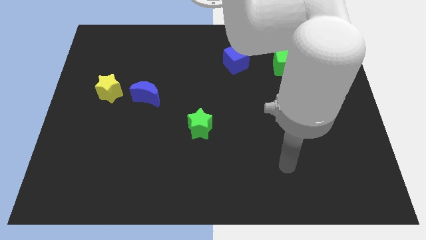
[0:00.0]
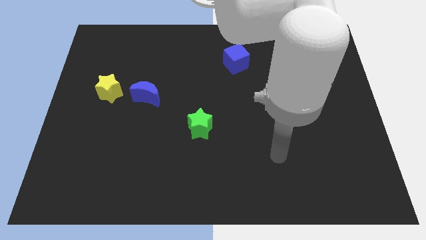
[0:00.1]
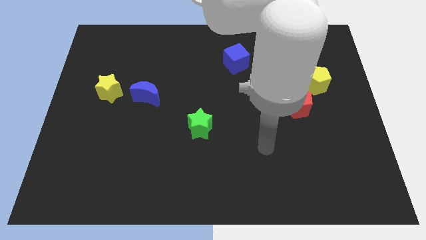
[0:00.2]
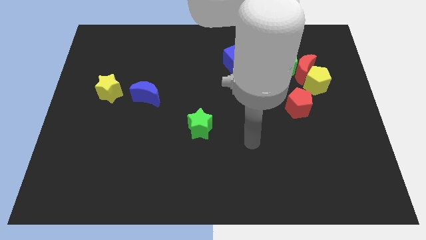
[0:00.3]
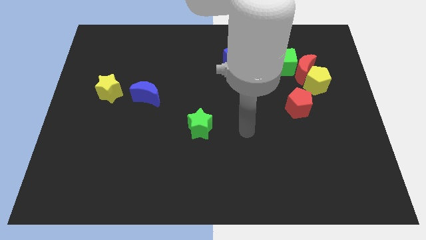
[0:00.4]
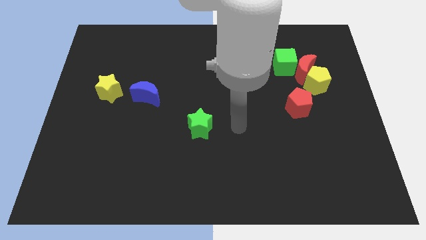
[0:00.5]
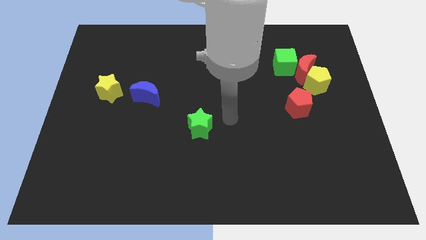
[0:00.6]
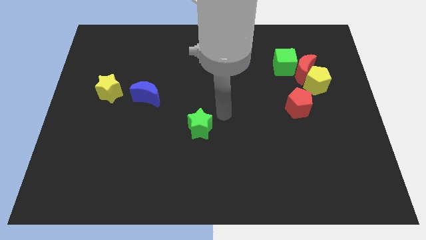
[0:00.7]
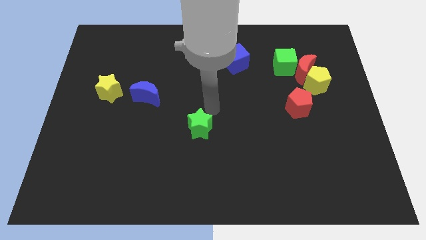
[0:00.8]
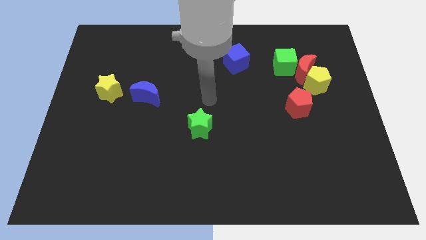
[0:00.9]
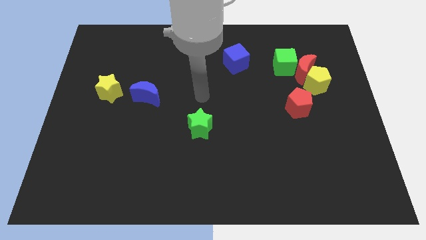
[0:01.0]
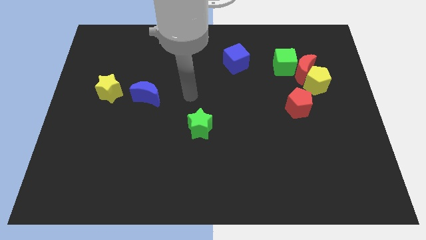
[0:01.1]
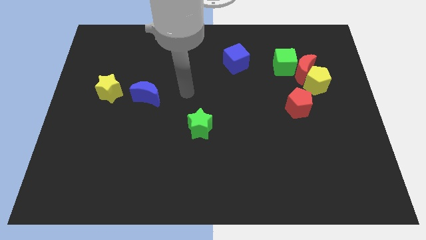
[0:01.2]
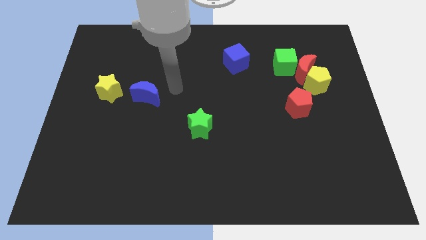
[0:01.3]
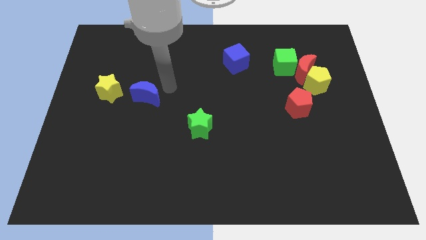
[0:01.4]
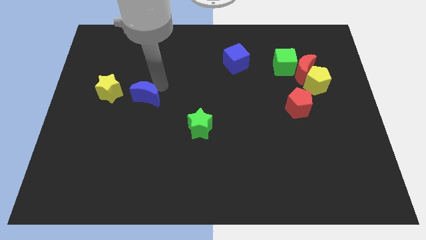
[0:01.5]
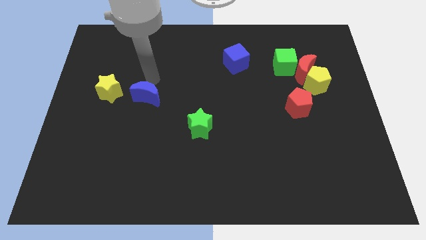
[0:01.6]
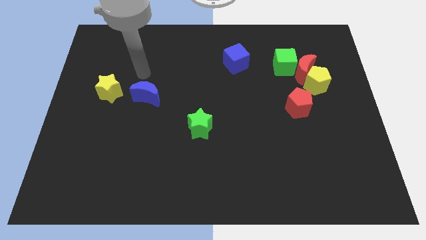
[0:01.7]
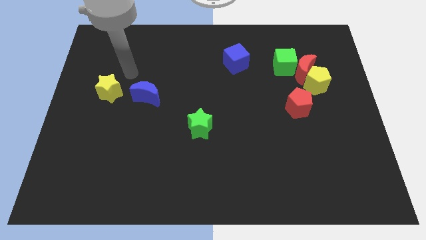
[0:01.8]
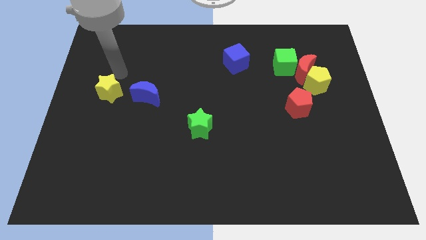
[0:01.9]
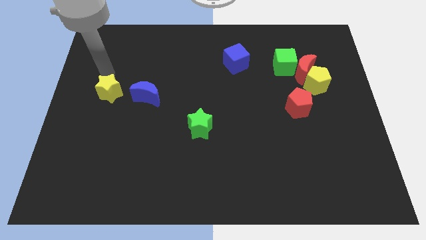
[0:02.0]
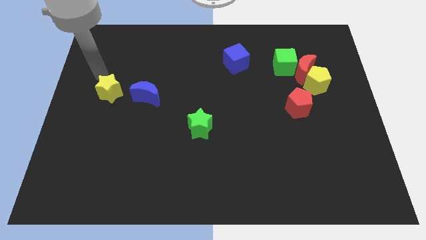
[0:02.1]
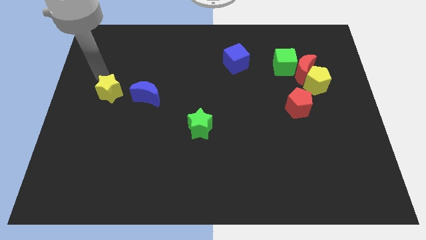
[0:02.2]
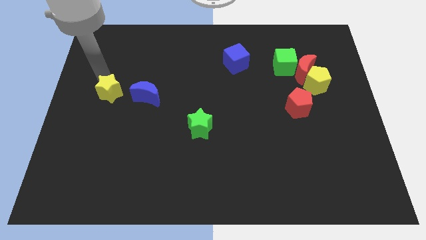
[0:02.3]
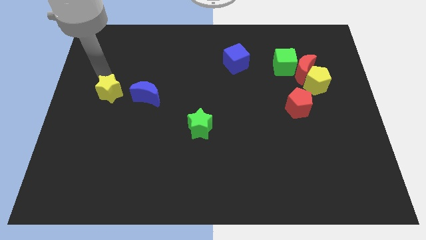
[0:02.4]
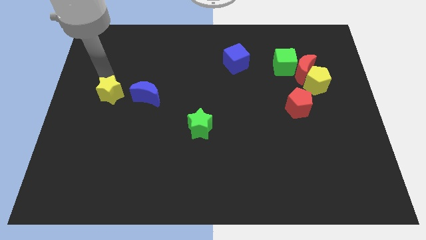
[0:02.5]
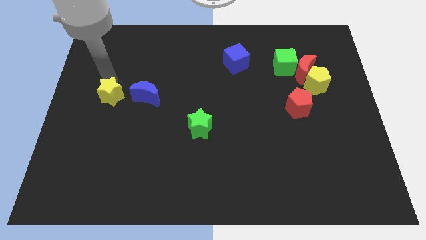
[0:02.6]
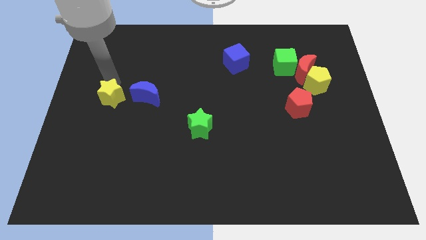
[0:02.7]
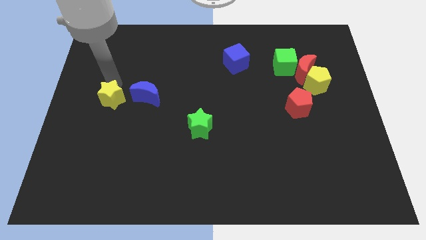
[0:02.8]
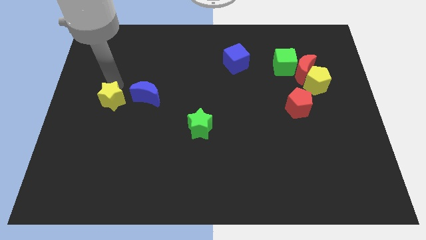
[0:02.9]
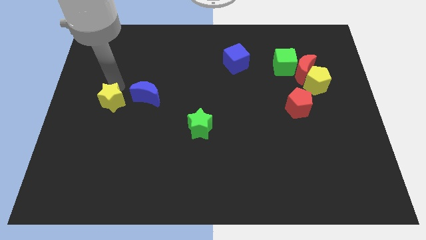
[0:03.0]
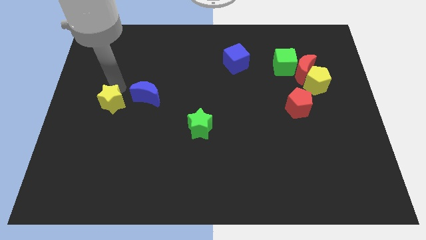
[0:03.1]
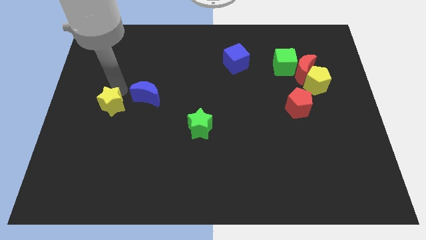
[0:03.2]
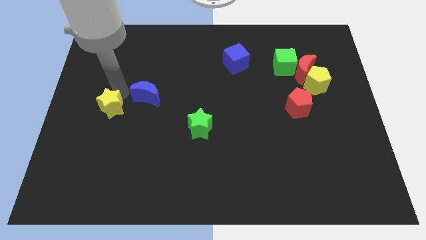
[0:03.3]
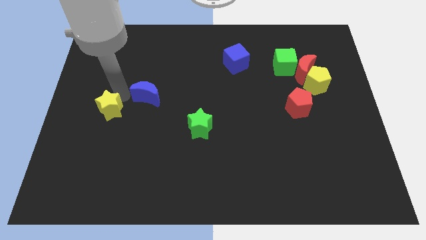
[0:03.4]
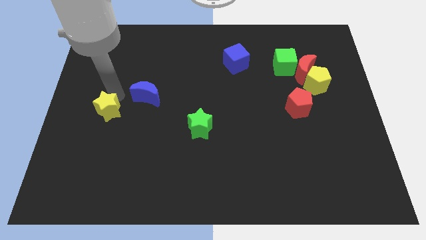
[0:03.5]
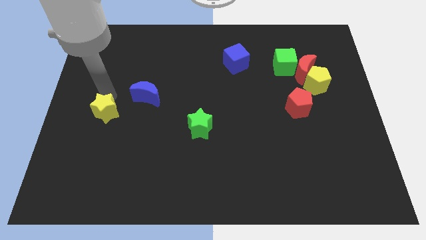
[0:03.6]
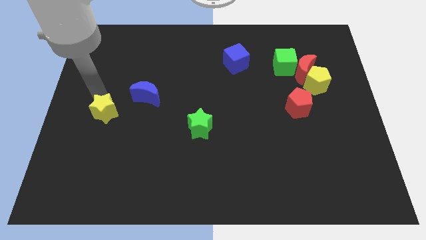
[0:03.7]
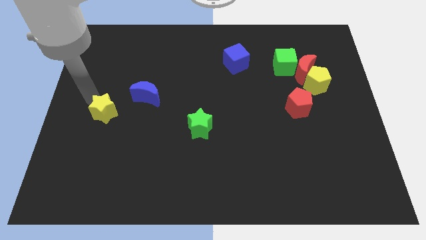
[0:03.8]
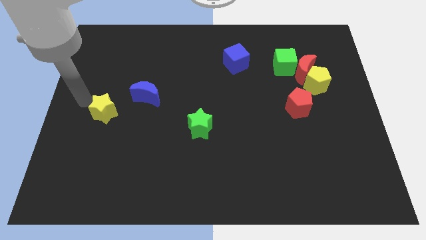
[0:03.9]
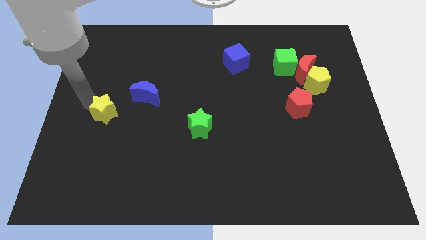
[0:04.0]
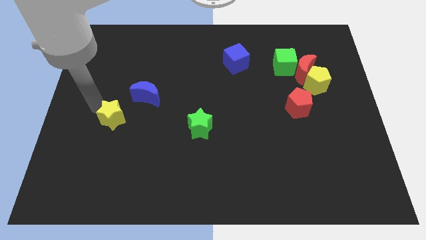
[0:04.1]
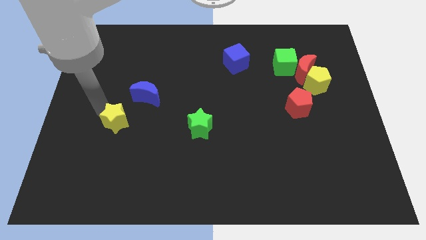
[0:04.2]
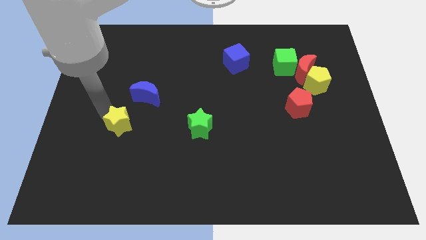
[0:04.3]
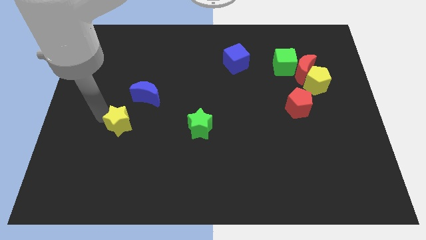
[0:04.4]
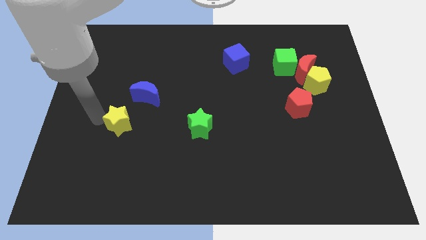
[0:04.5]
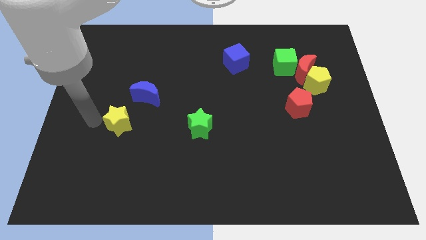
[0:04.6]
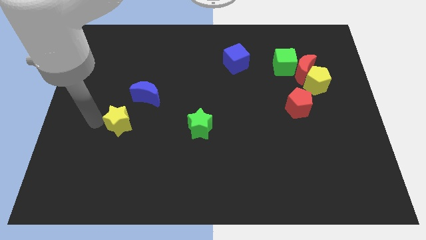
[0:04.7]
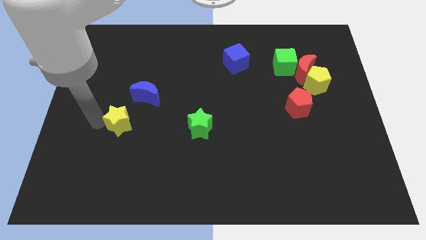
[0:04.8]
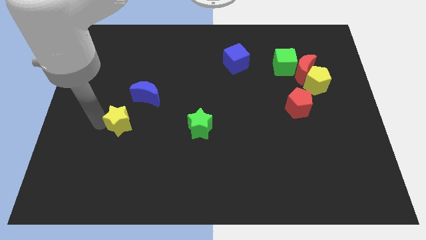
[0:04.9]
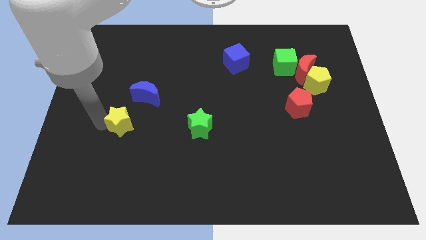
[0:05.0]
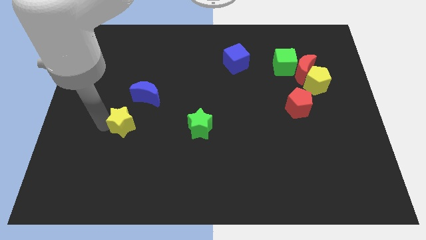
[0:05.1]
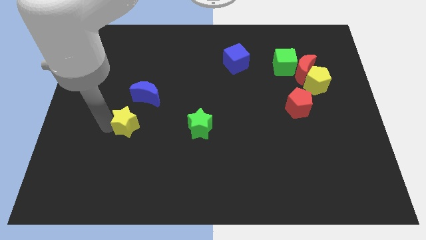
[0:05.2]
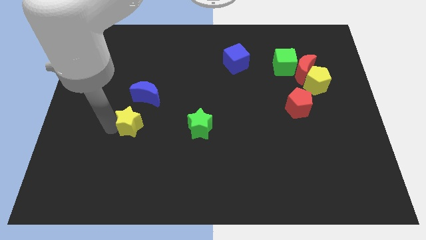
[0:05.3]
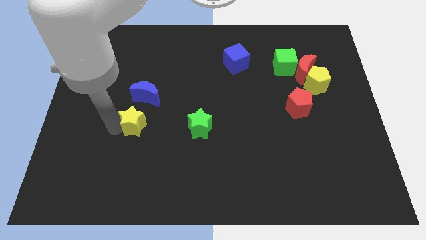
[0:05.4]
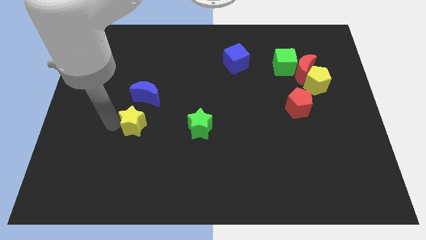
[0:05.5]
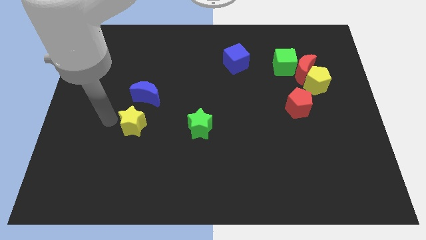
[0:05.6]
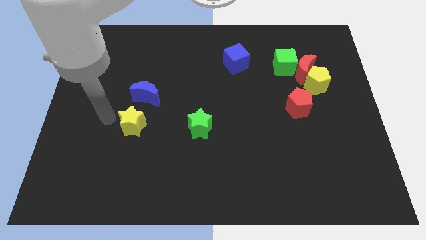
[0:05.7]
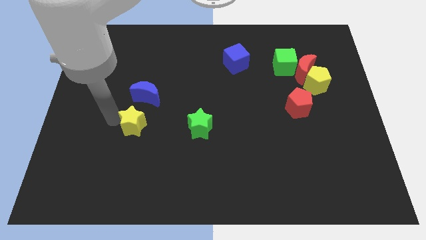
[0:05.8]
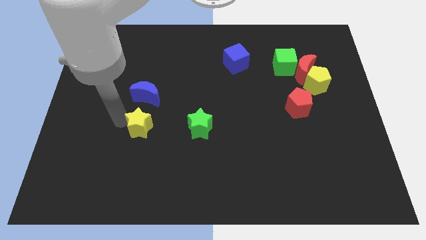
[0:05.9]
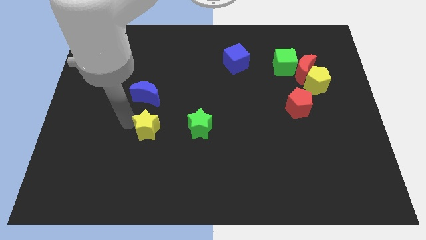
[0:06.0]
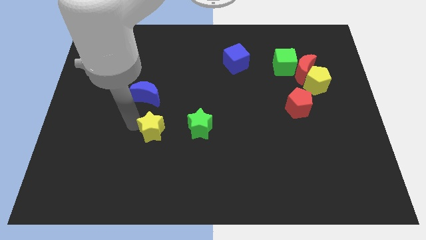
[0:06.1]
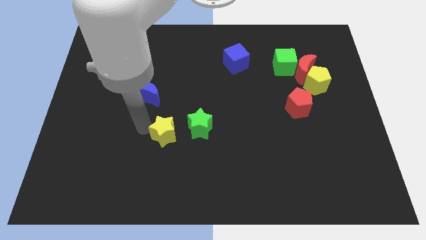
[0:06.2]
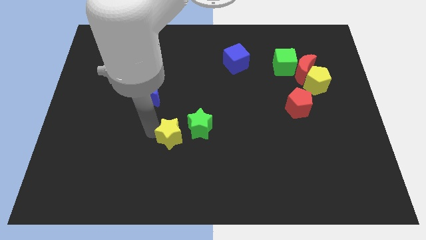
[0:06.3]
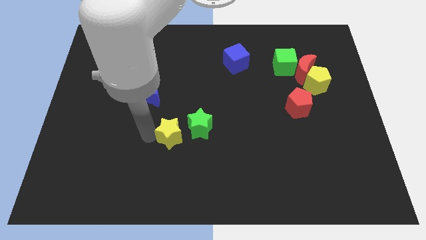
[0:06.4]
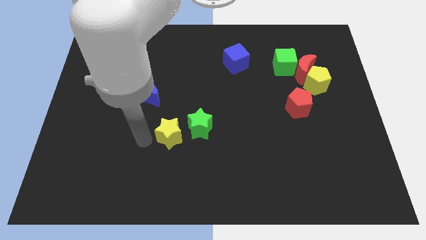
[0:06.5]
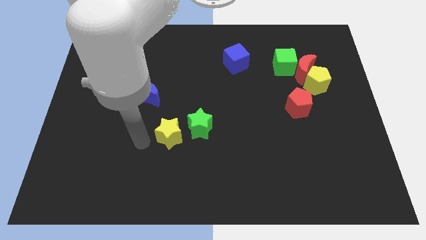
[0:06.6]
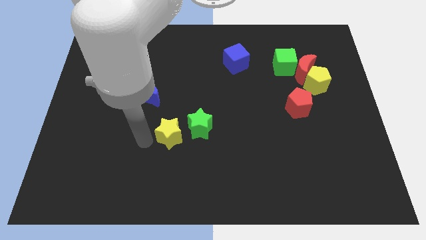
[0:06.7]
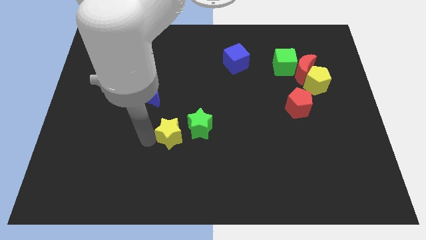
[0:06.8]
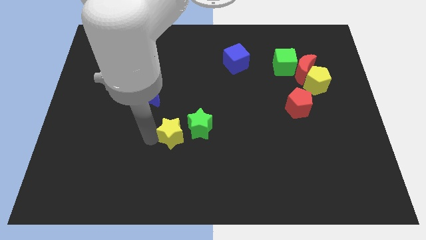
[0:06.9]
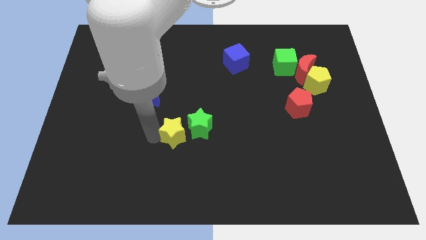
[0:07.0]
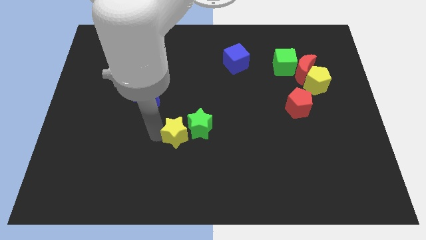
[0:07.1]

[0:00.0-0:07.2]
push the yellow star close to the green star
